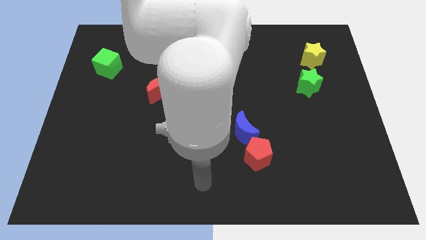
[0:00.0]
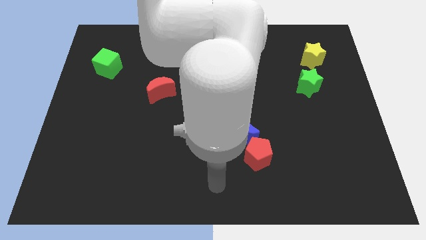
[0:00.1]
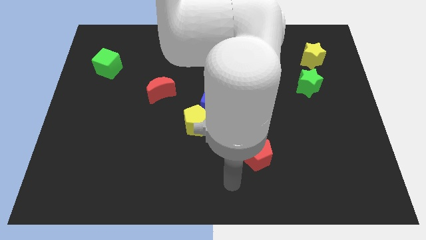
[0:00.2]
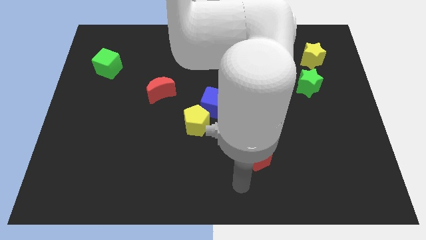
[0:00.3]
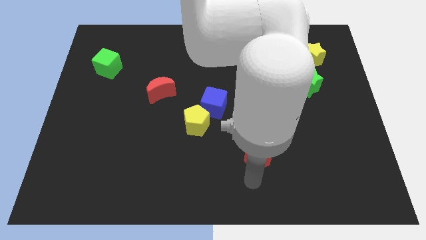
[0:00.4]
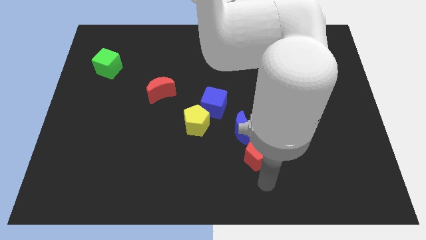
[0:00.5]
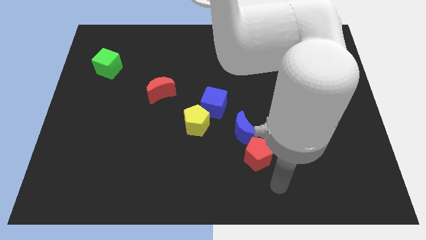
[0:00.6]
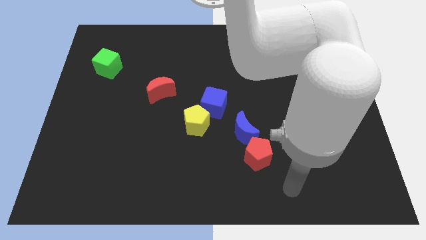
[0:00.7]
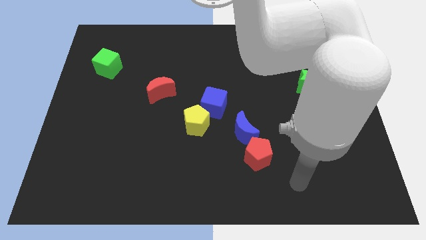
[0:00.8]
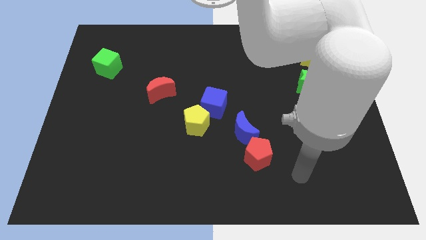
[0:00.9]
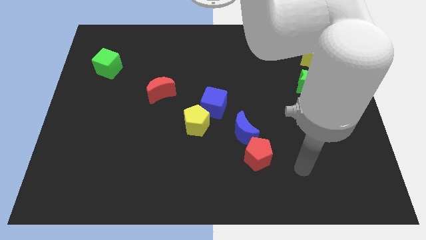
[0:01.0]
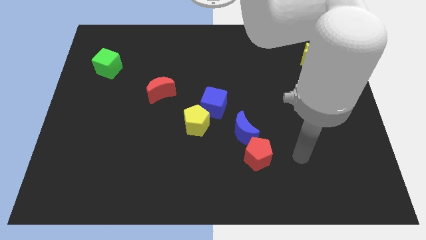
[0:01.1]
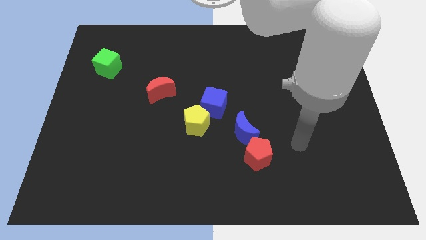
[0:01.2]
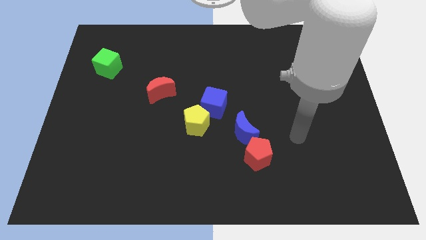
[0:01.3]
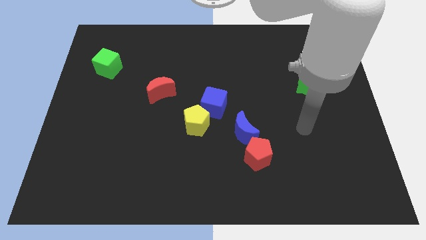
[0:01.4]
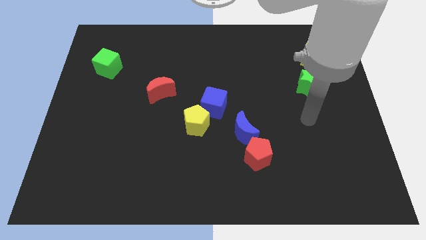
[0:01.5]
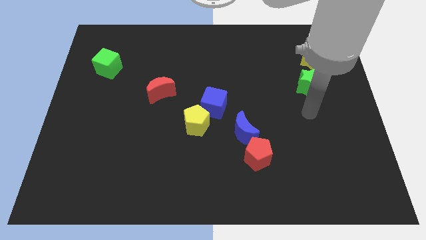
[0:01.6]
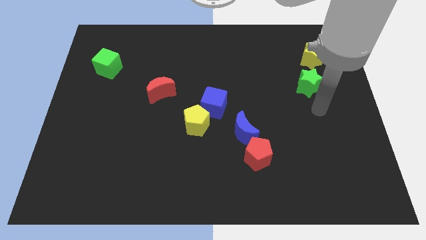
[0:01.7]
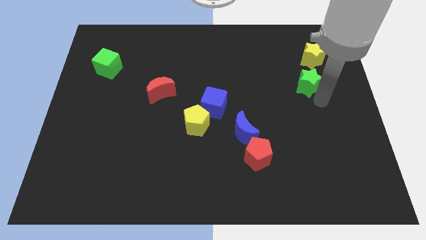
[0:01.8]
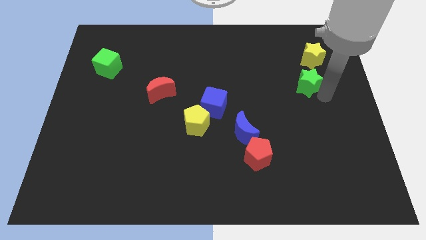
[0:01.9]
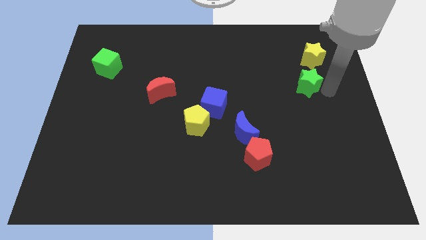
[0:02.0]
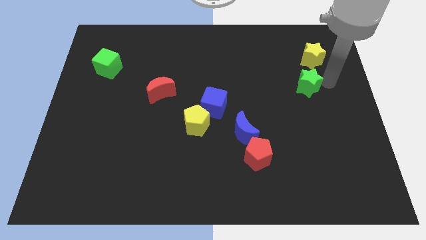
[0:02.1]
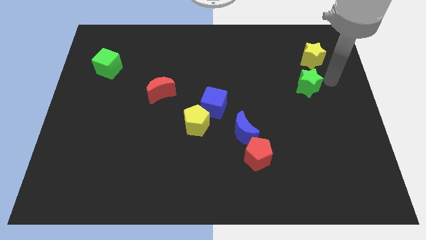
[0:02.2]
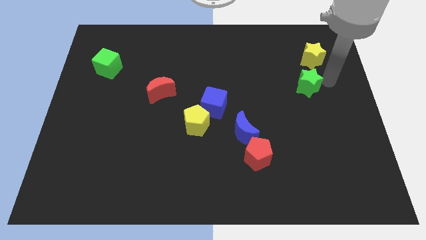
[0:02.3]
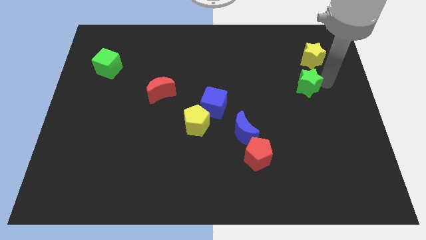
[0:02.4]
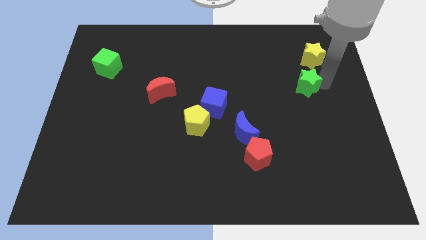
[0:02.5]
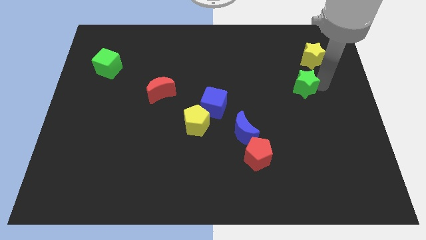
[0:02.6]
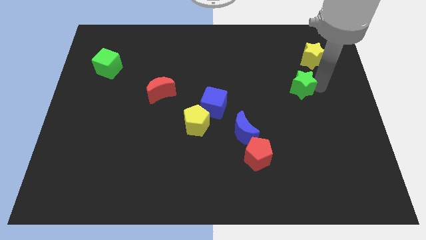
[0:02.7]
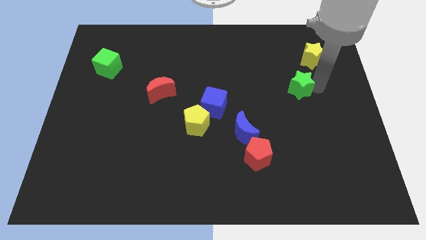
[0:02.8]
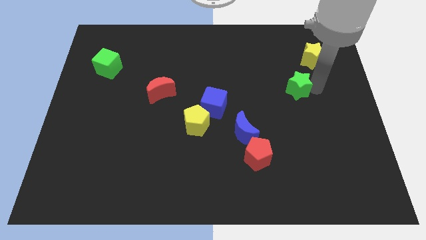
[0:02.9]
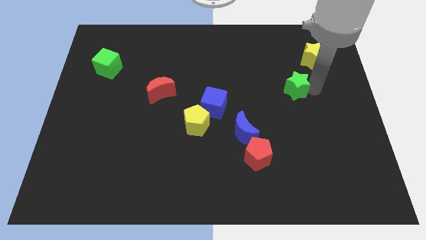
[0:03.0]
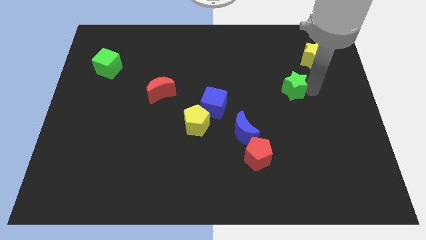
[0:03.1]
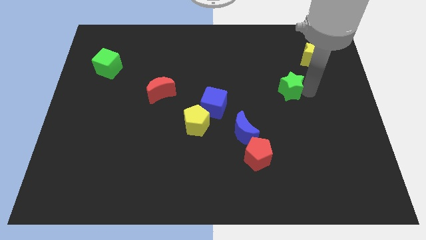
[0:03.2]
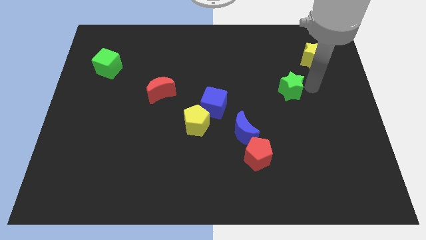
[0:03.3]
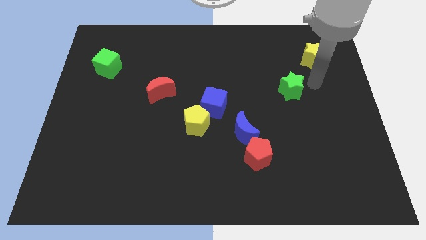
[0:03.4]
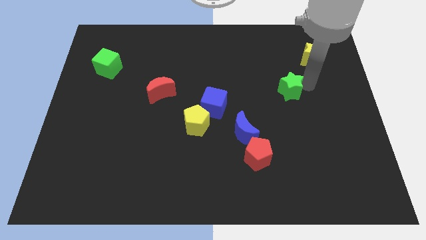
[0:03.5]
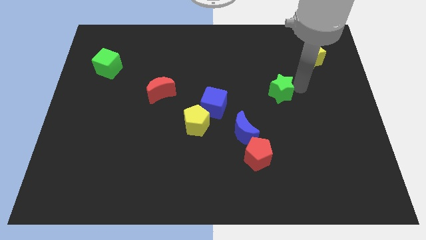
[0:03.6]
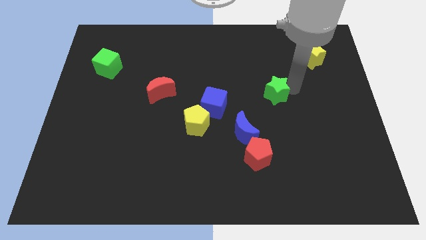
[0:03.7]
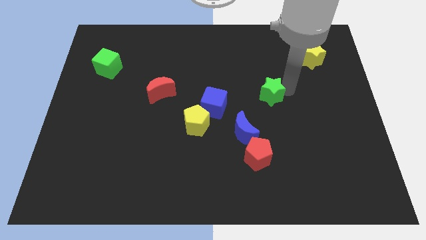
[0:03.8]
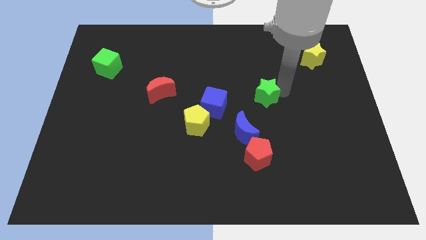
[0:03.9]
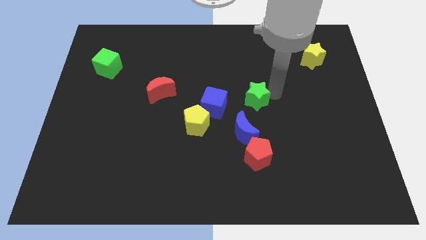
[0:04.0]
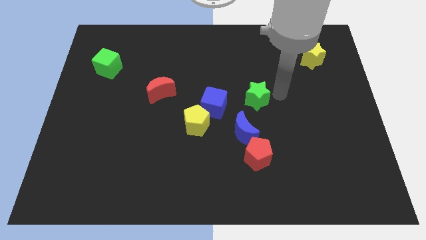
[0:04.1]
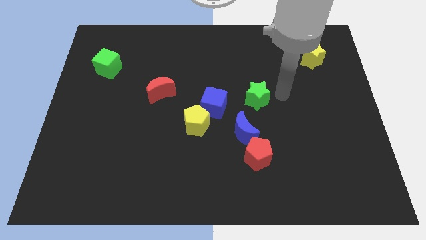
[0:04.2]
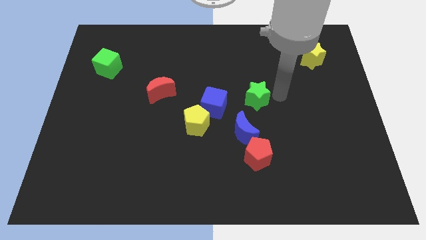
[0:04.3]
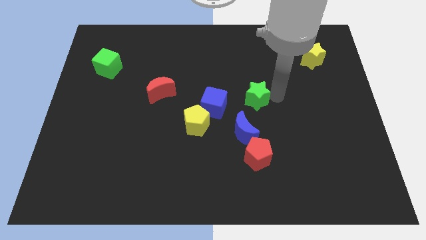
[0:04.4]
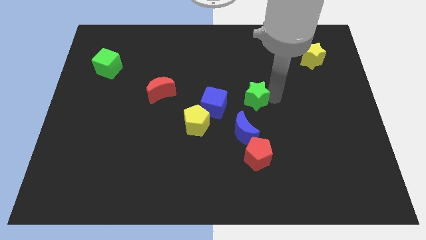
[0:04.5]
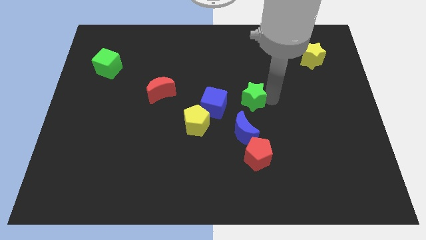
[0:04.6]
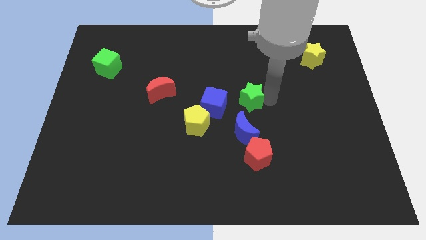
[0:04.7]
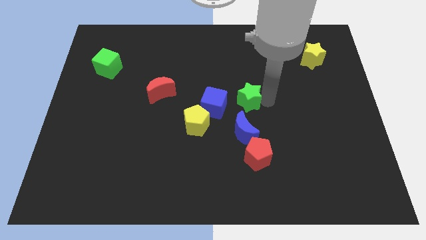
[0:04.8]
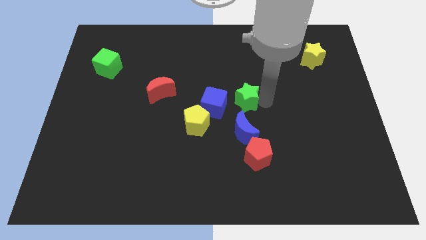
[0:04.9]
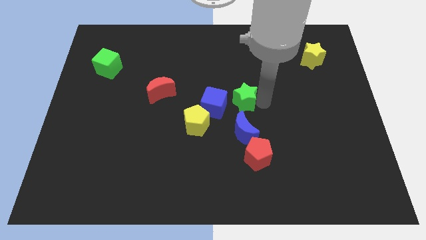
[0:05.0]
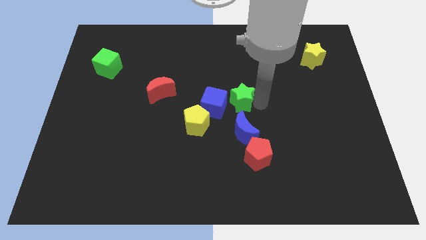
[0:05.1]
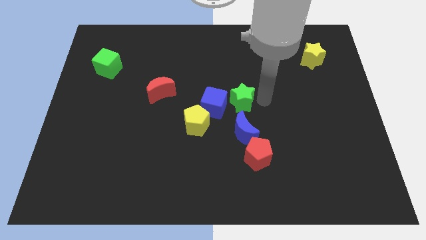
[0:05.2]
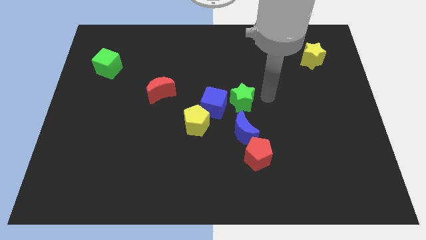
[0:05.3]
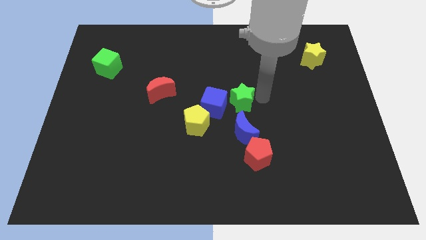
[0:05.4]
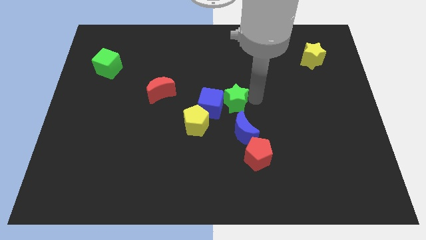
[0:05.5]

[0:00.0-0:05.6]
push the green star to the blue cube

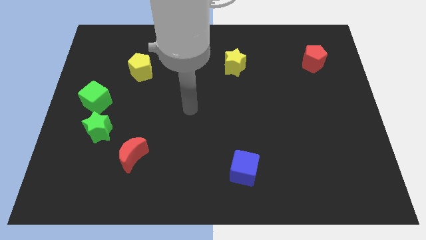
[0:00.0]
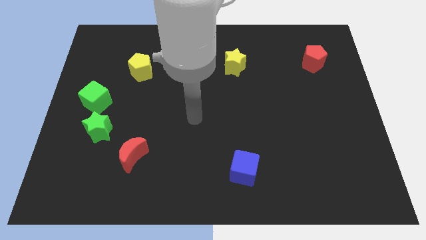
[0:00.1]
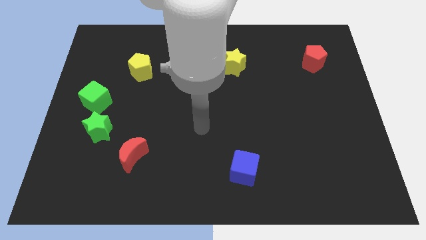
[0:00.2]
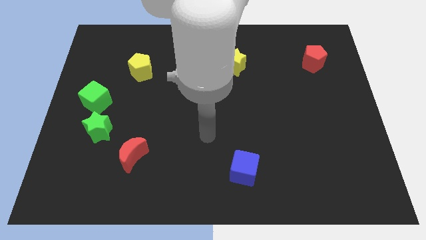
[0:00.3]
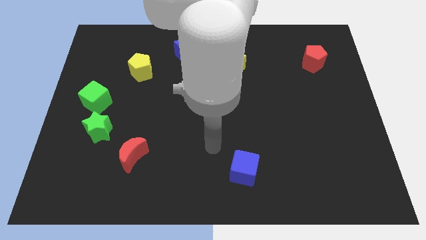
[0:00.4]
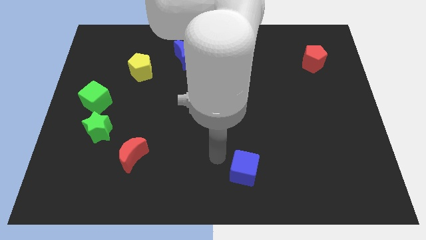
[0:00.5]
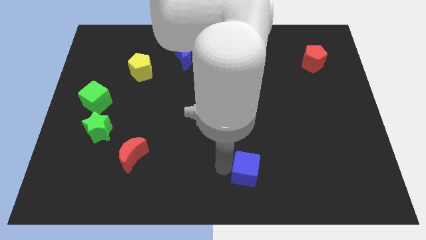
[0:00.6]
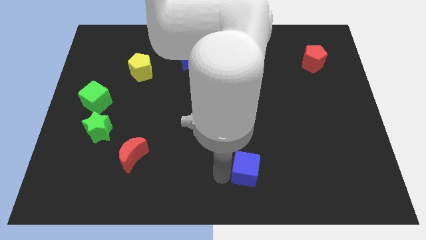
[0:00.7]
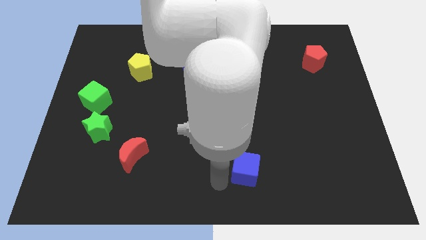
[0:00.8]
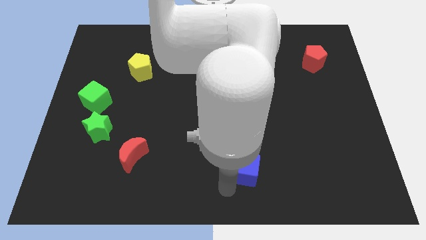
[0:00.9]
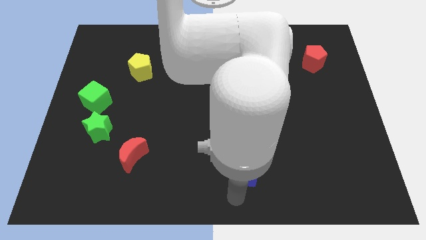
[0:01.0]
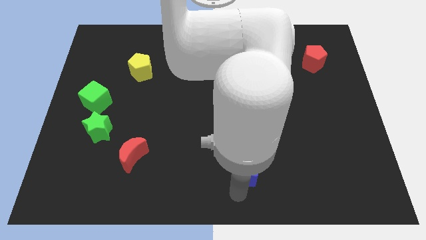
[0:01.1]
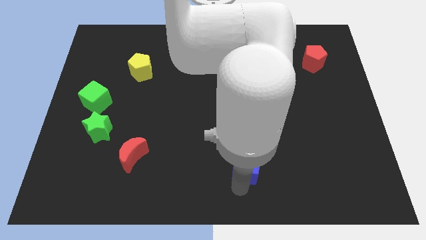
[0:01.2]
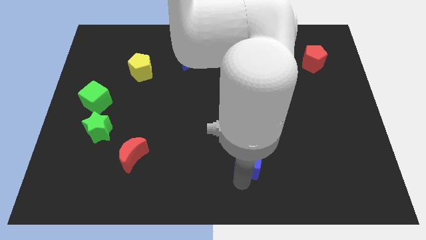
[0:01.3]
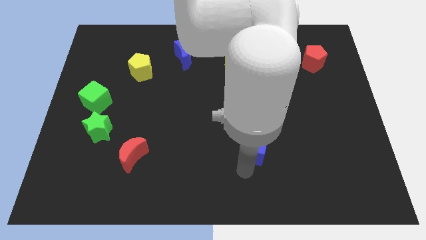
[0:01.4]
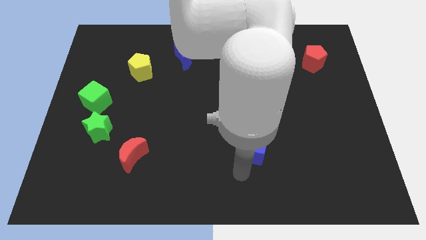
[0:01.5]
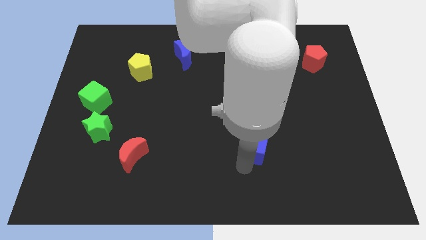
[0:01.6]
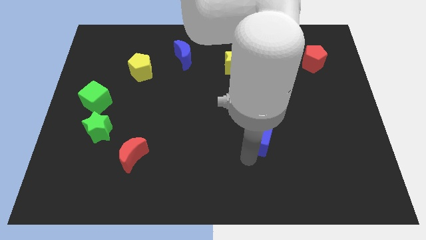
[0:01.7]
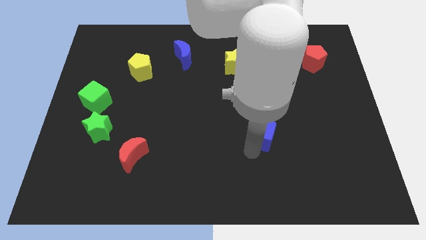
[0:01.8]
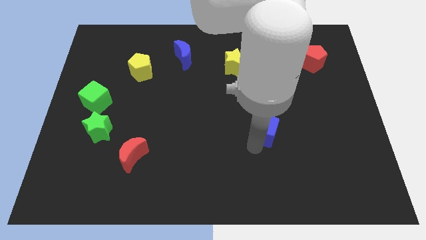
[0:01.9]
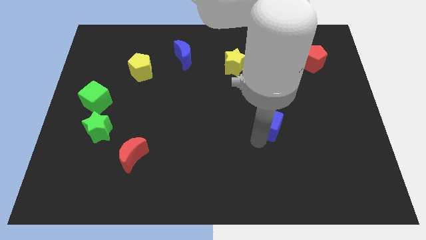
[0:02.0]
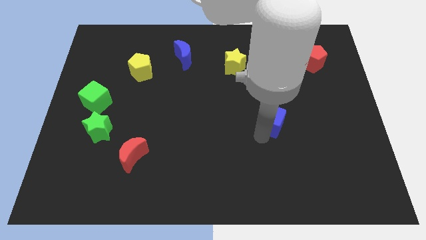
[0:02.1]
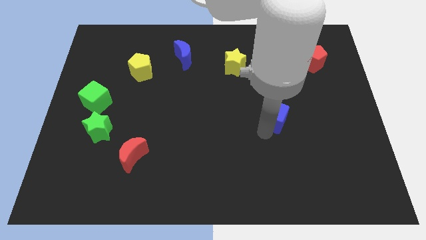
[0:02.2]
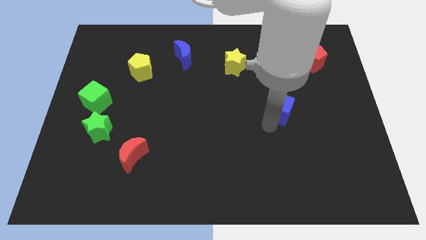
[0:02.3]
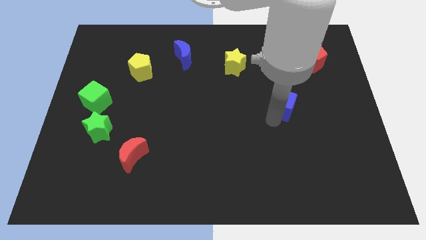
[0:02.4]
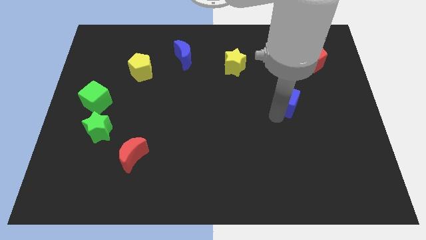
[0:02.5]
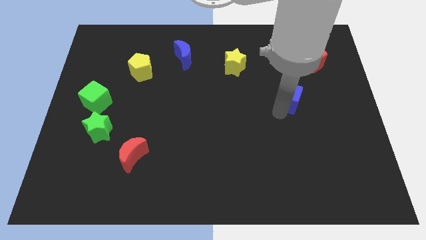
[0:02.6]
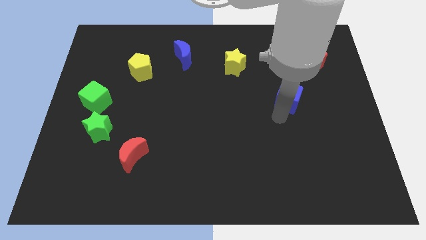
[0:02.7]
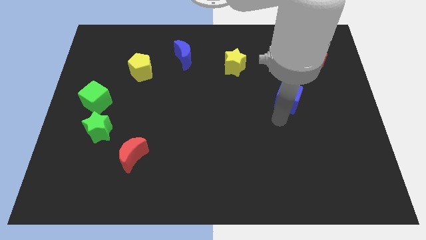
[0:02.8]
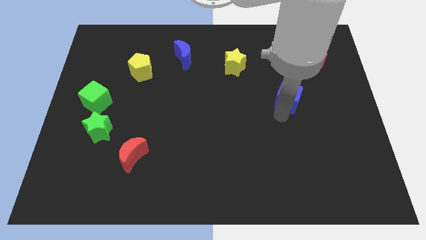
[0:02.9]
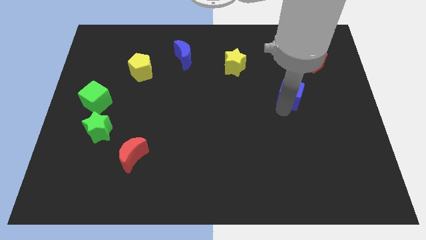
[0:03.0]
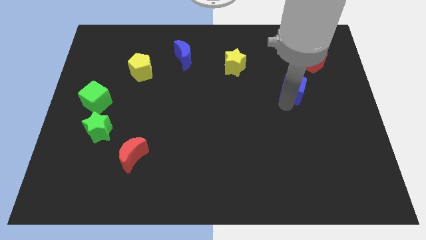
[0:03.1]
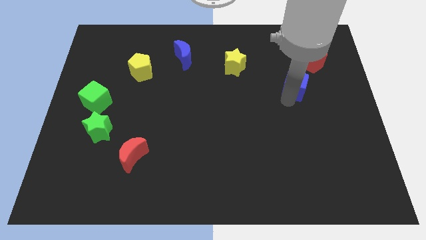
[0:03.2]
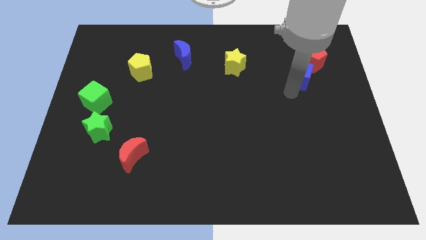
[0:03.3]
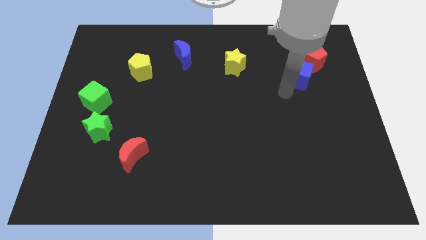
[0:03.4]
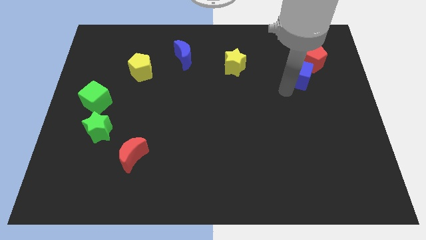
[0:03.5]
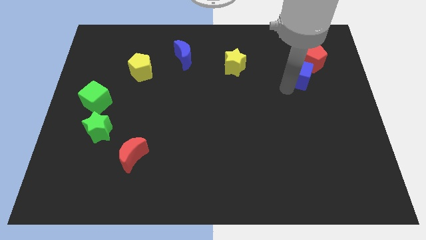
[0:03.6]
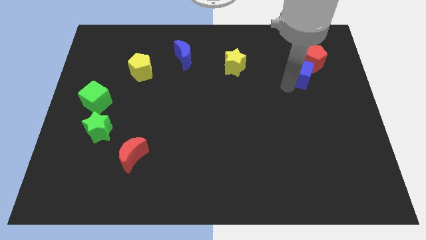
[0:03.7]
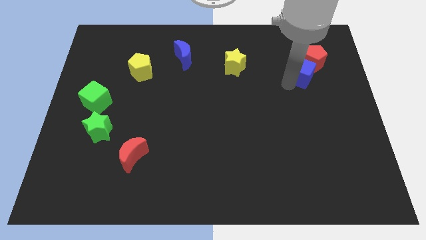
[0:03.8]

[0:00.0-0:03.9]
slide the blue cube close to the red pentagon
